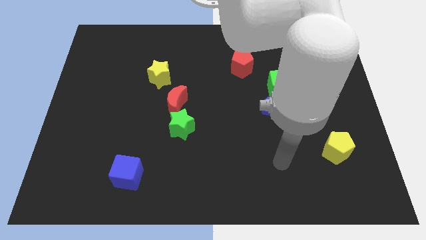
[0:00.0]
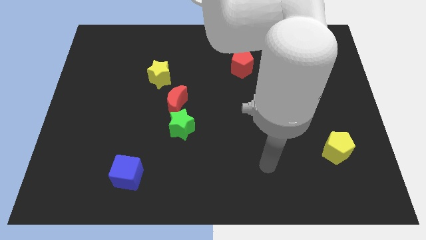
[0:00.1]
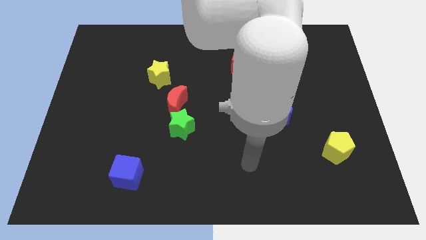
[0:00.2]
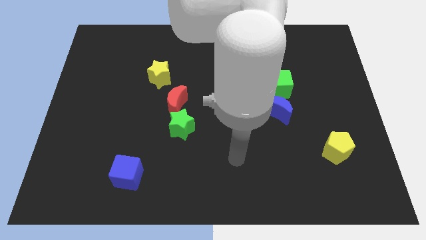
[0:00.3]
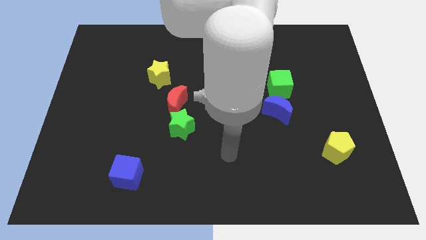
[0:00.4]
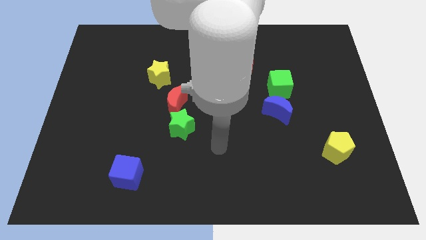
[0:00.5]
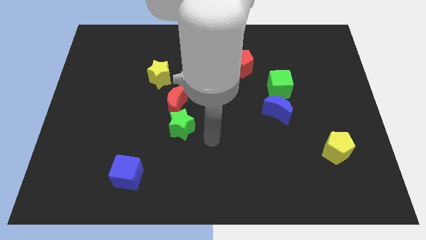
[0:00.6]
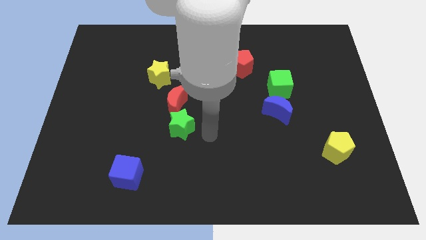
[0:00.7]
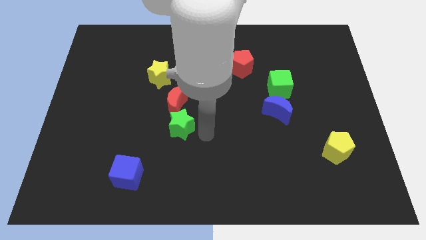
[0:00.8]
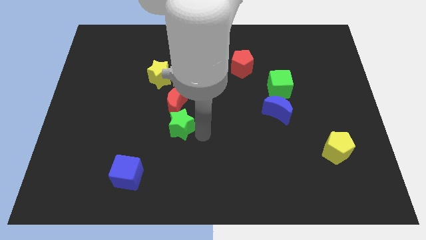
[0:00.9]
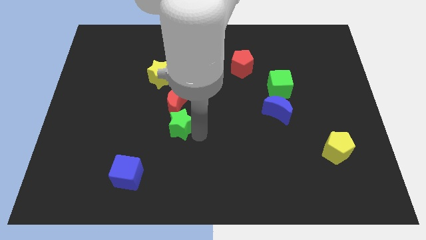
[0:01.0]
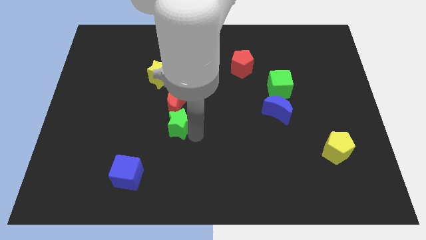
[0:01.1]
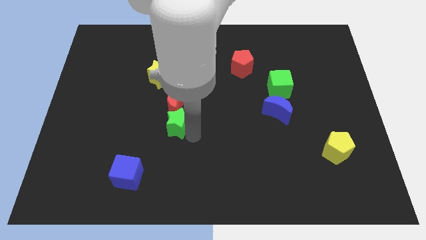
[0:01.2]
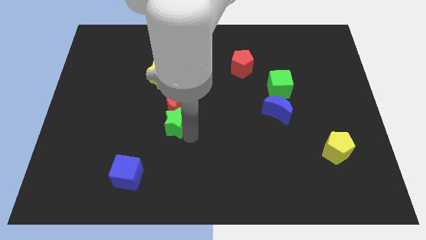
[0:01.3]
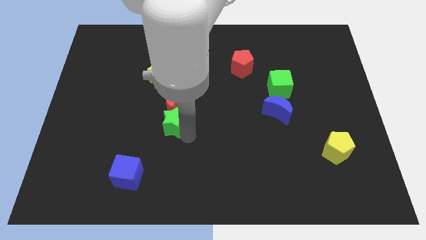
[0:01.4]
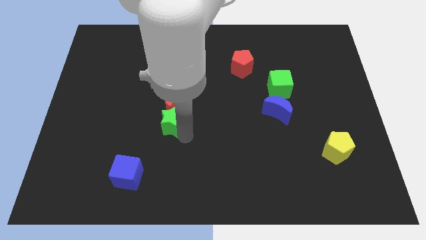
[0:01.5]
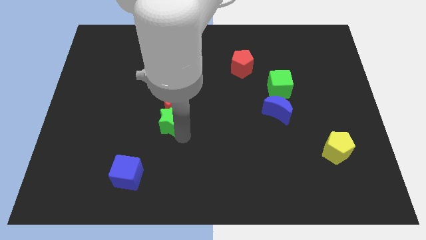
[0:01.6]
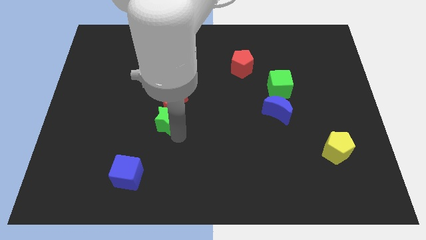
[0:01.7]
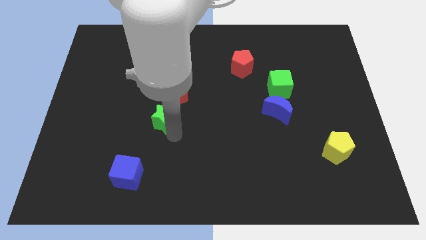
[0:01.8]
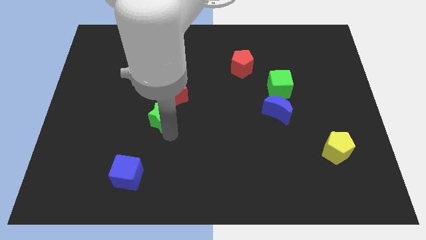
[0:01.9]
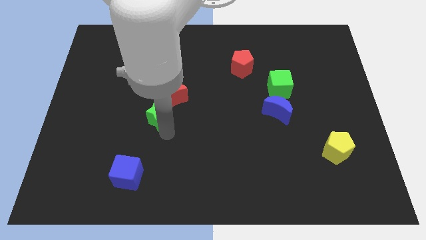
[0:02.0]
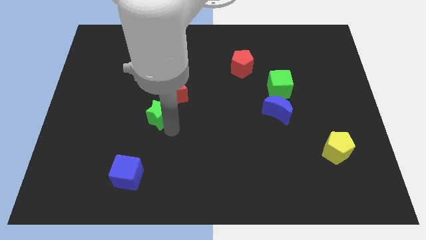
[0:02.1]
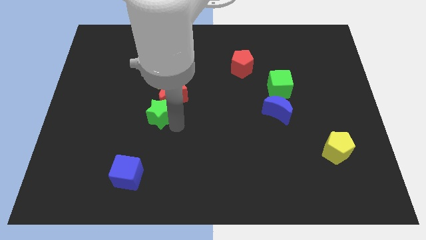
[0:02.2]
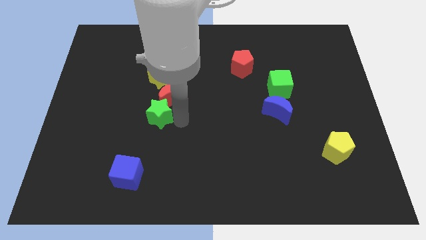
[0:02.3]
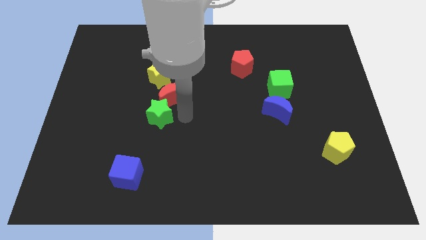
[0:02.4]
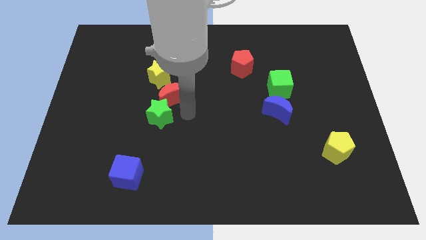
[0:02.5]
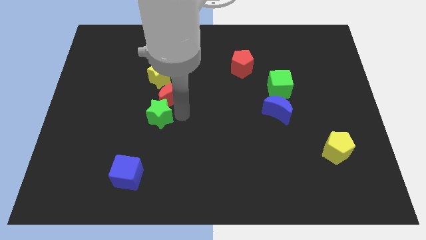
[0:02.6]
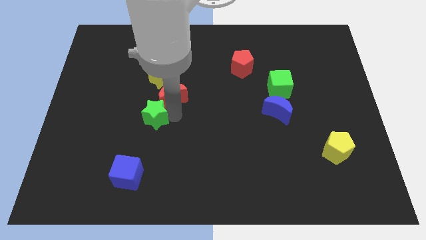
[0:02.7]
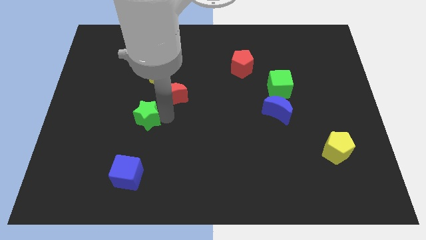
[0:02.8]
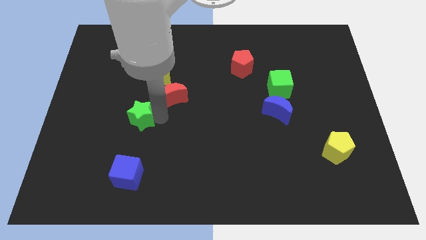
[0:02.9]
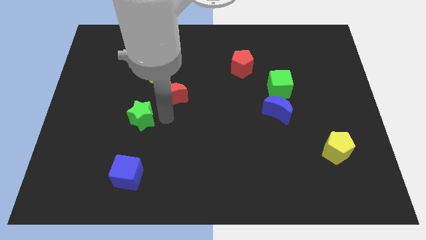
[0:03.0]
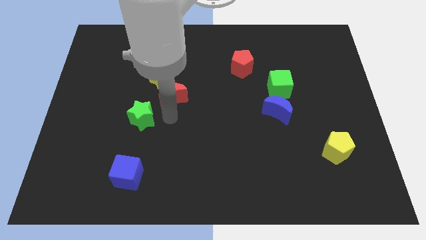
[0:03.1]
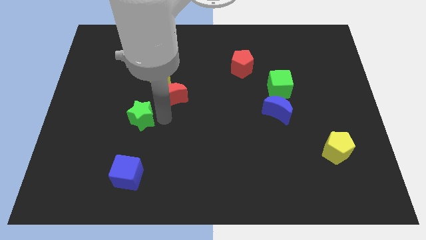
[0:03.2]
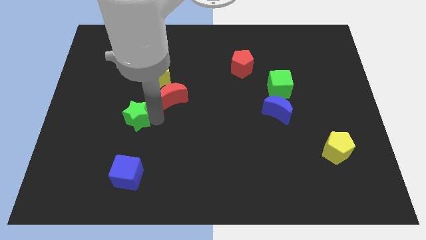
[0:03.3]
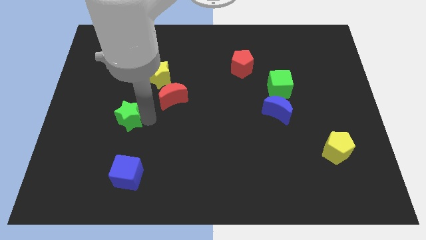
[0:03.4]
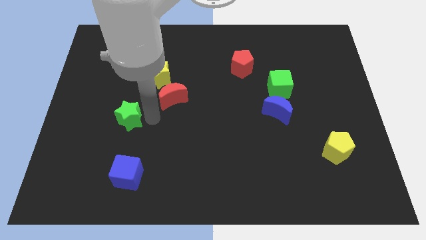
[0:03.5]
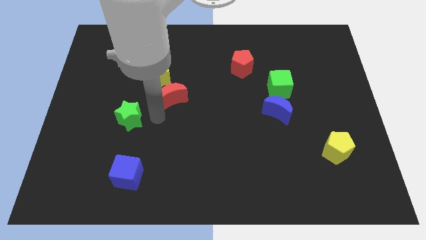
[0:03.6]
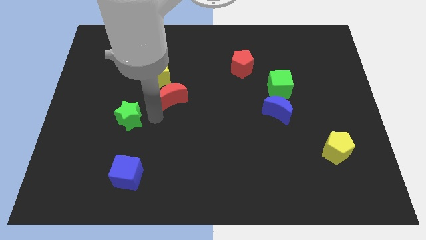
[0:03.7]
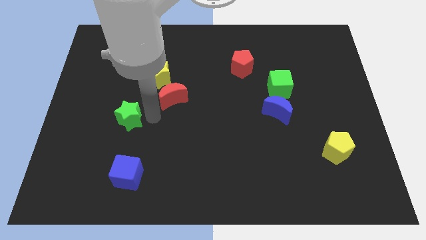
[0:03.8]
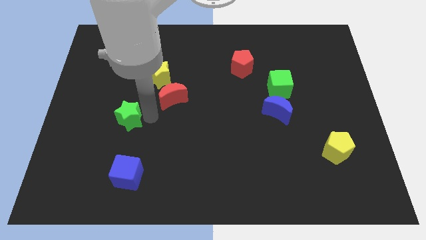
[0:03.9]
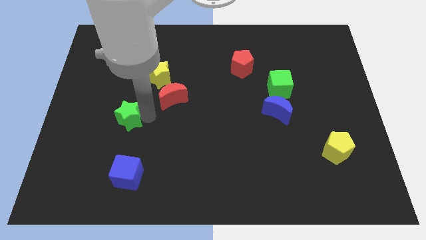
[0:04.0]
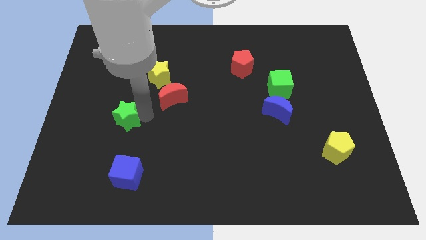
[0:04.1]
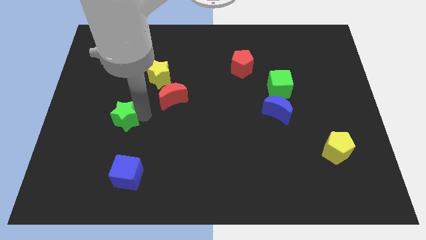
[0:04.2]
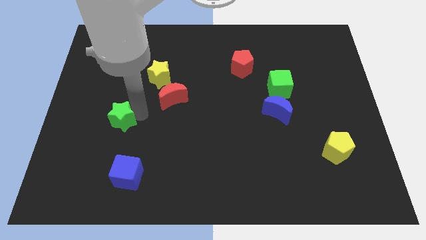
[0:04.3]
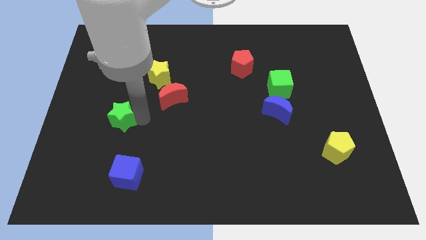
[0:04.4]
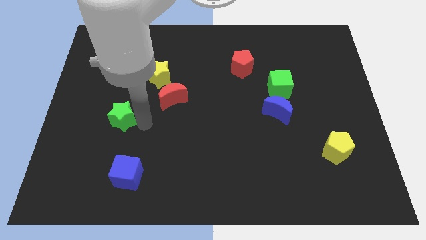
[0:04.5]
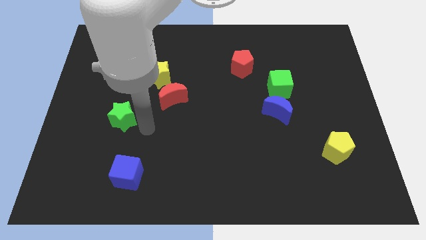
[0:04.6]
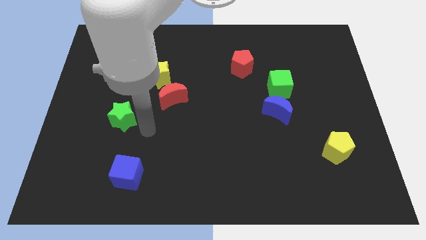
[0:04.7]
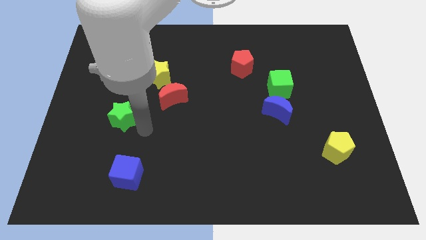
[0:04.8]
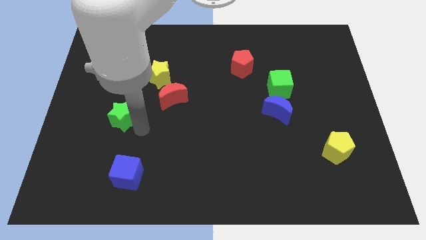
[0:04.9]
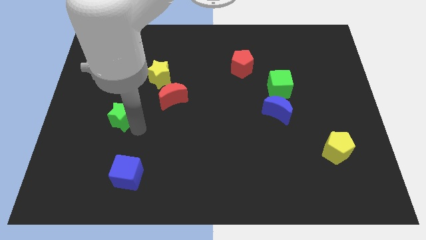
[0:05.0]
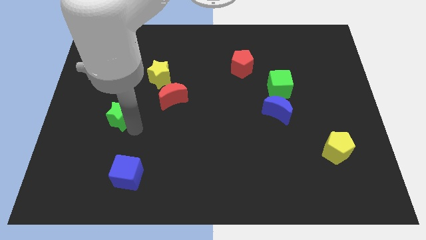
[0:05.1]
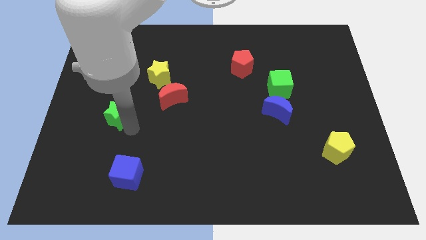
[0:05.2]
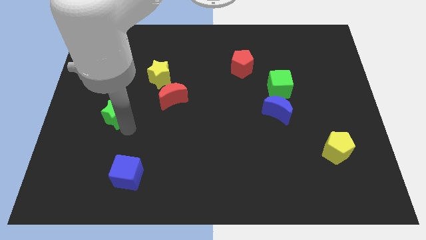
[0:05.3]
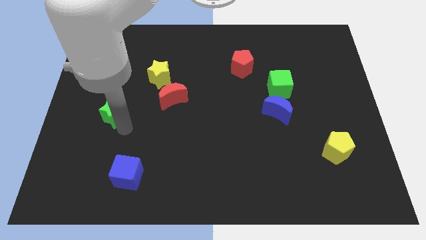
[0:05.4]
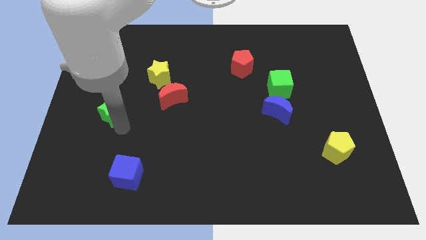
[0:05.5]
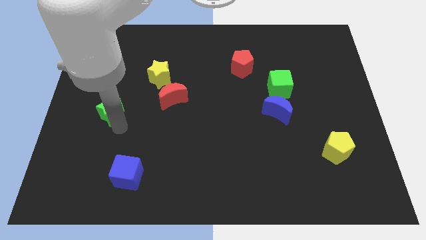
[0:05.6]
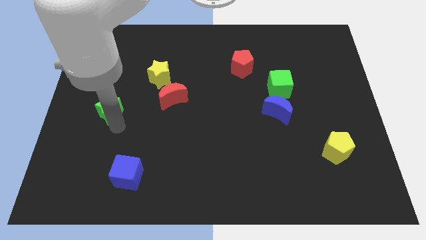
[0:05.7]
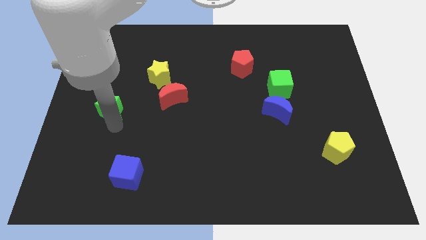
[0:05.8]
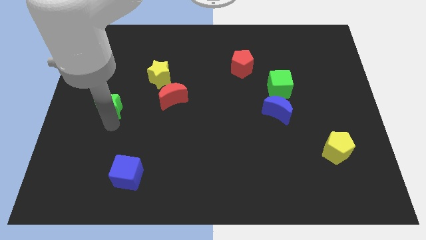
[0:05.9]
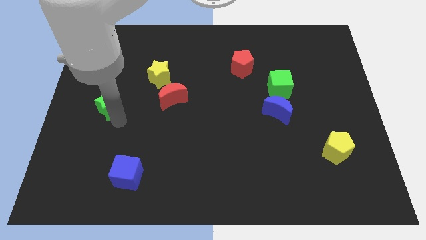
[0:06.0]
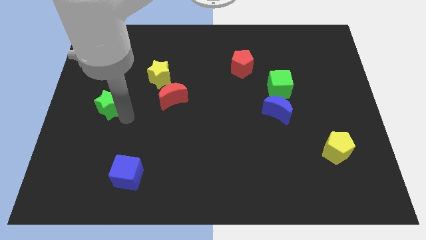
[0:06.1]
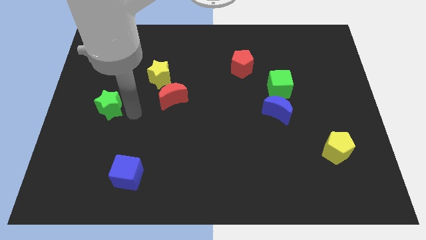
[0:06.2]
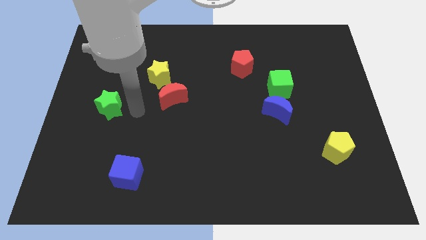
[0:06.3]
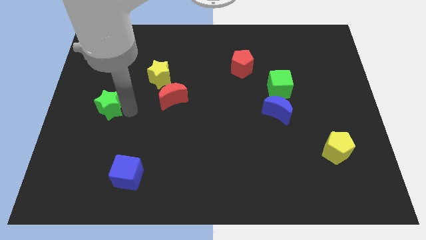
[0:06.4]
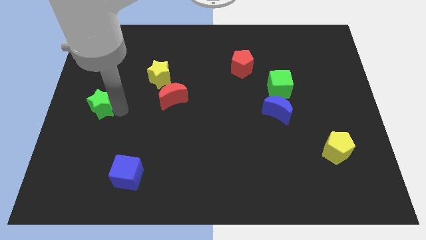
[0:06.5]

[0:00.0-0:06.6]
move the green star to the center left
